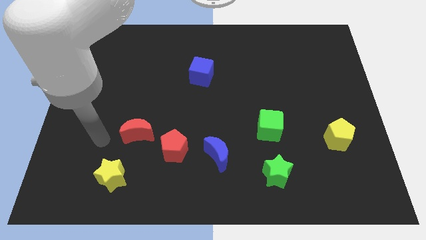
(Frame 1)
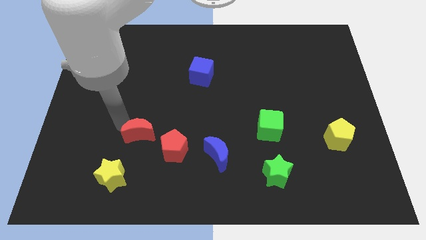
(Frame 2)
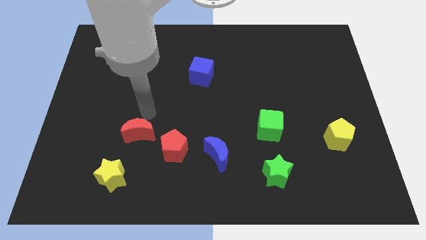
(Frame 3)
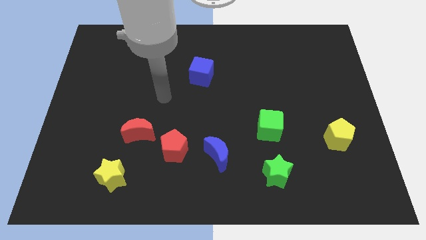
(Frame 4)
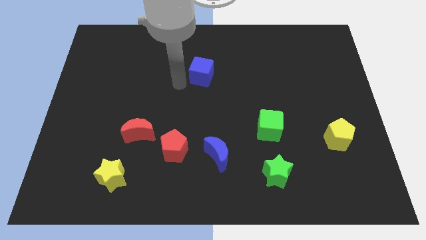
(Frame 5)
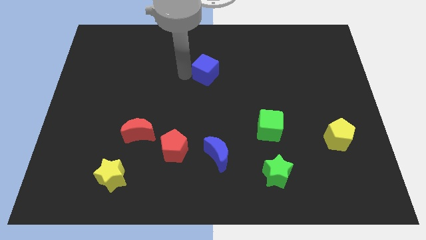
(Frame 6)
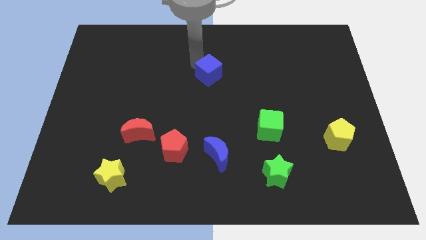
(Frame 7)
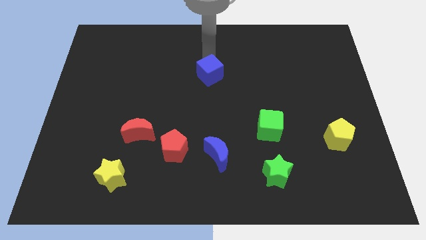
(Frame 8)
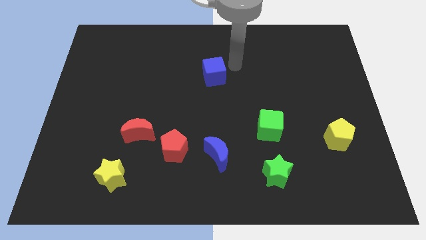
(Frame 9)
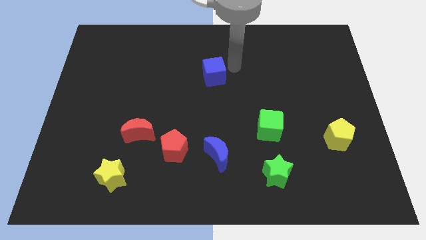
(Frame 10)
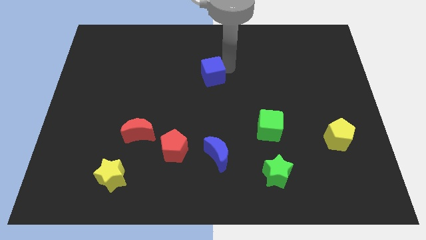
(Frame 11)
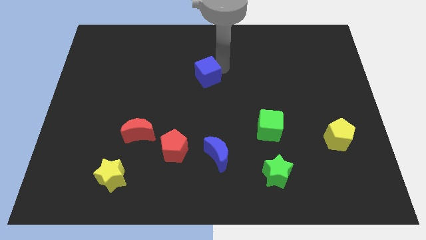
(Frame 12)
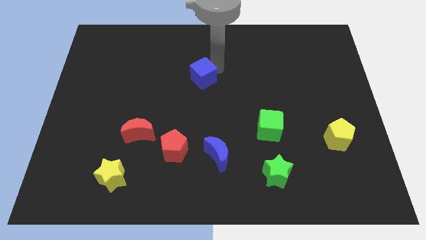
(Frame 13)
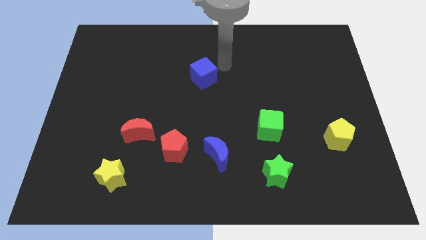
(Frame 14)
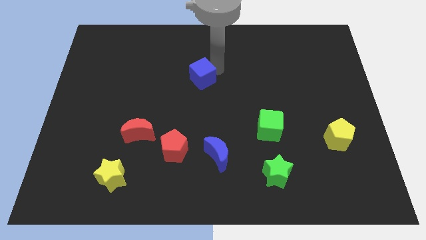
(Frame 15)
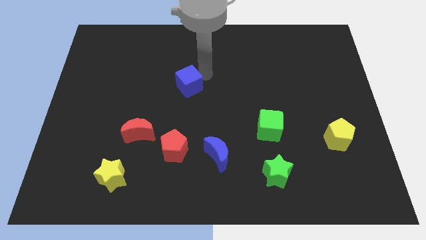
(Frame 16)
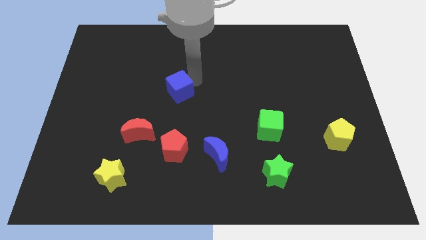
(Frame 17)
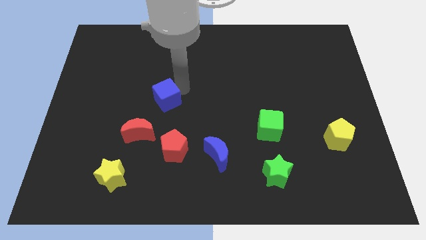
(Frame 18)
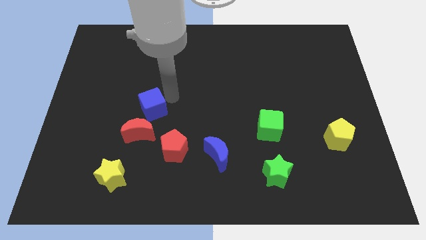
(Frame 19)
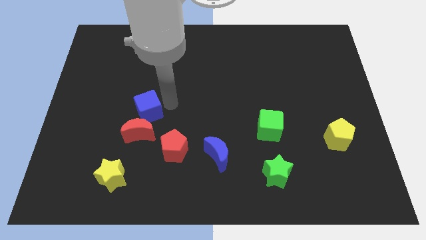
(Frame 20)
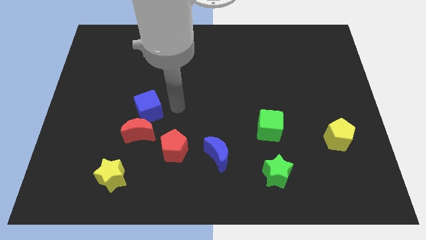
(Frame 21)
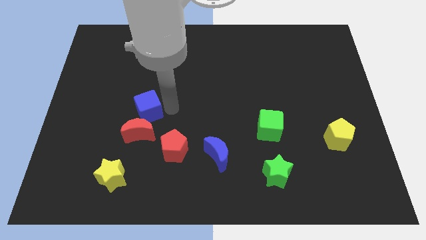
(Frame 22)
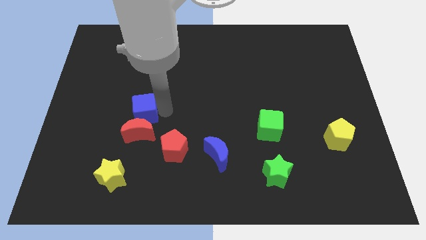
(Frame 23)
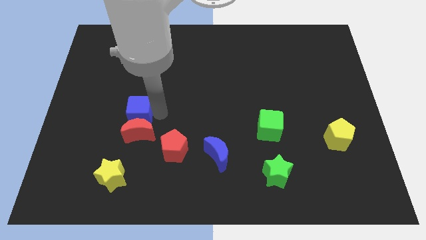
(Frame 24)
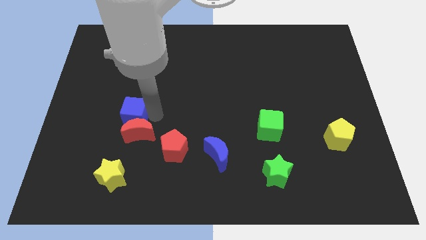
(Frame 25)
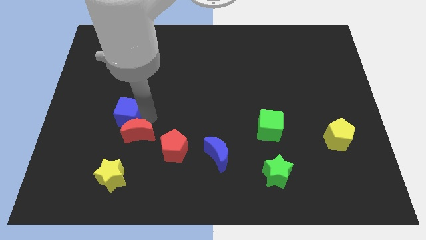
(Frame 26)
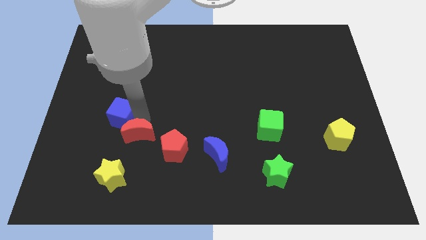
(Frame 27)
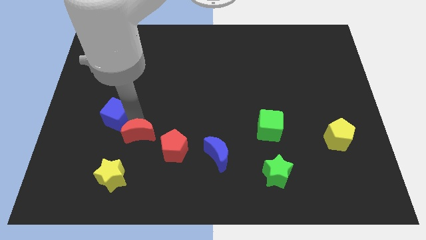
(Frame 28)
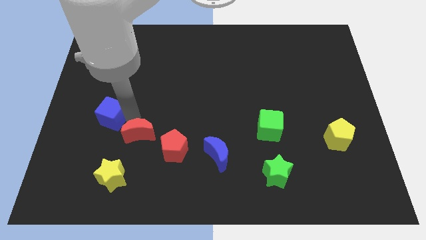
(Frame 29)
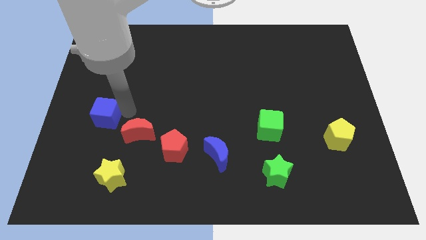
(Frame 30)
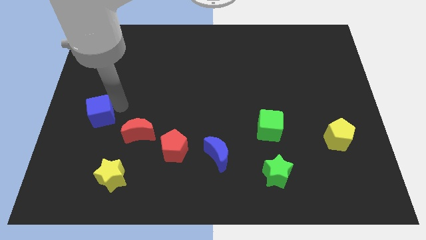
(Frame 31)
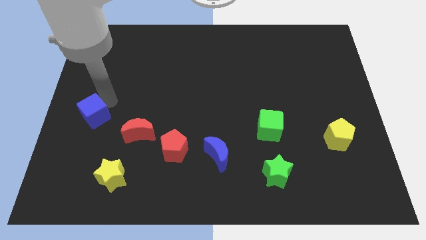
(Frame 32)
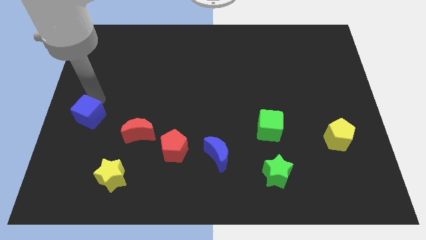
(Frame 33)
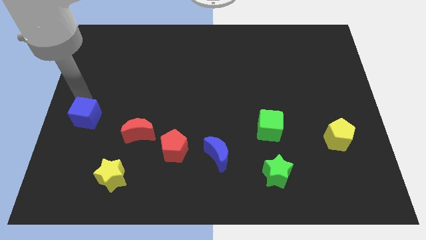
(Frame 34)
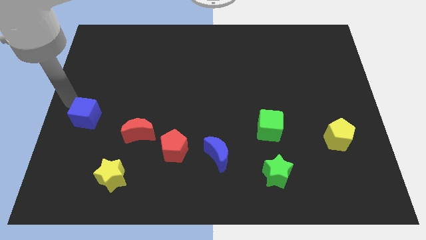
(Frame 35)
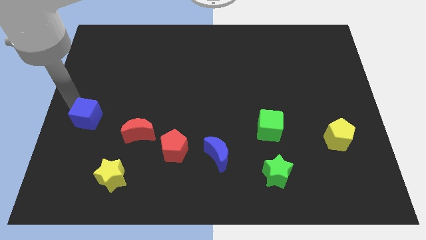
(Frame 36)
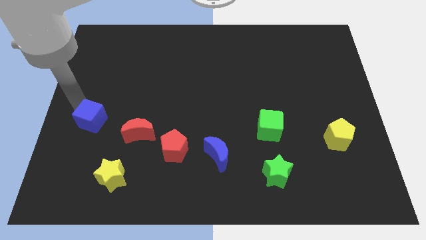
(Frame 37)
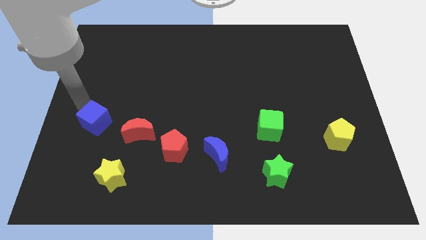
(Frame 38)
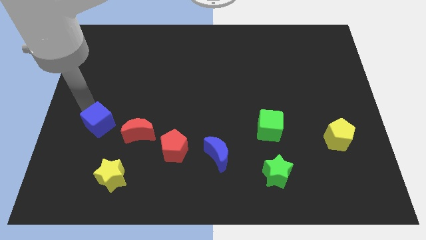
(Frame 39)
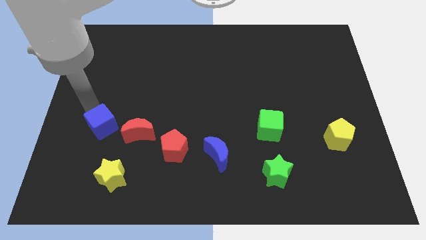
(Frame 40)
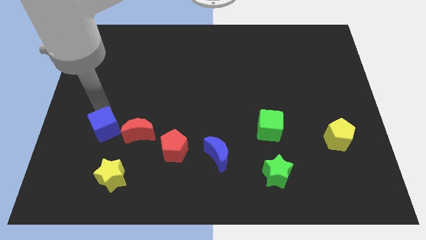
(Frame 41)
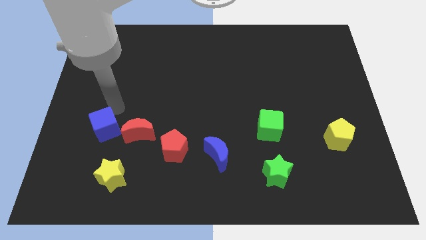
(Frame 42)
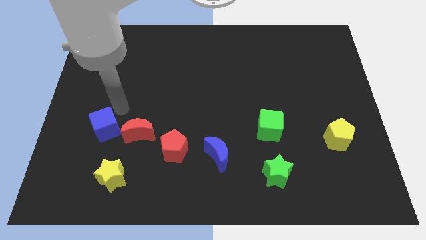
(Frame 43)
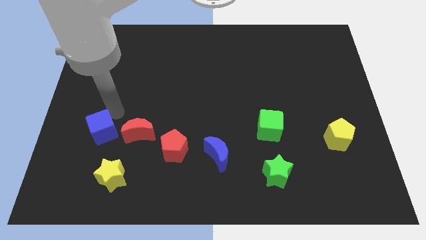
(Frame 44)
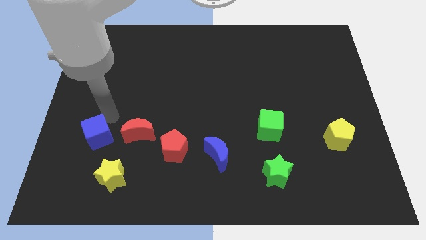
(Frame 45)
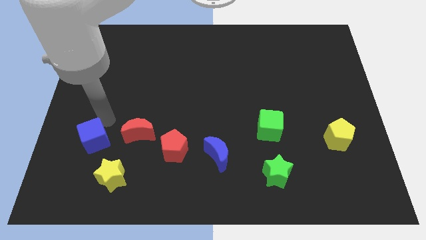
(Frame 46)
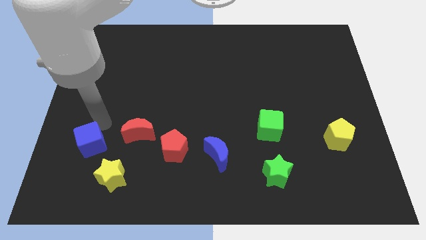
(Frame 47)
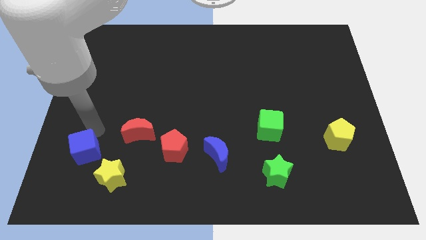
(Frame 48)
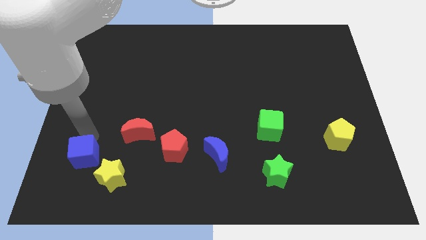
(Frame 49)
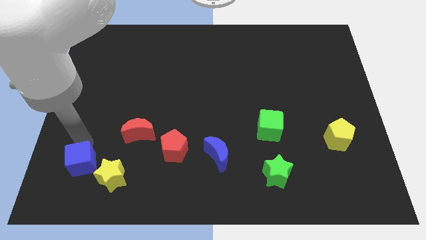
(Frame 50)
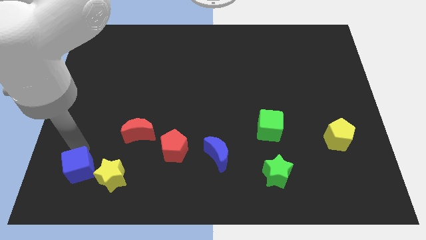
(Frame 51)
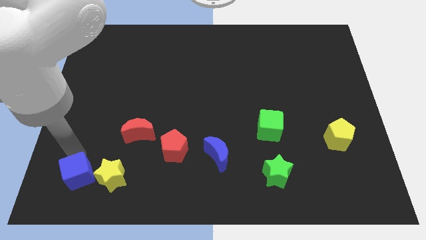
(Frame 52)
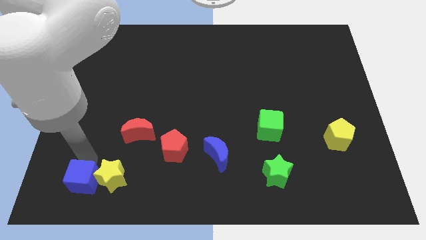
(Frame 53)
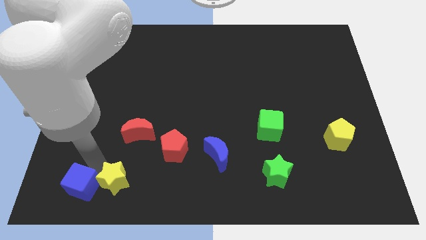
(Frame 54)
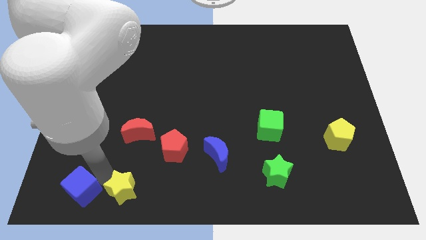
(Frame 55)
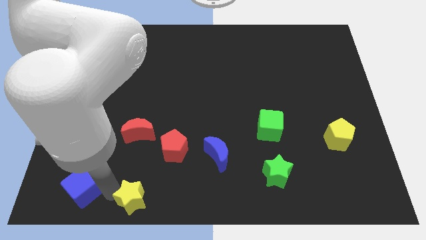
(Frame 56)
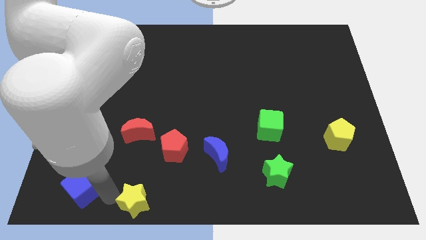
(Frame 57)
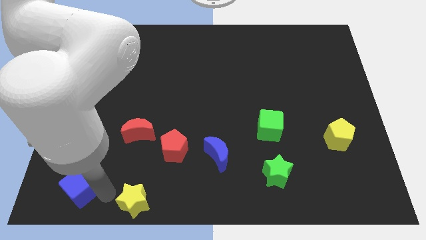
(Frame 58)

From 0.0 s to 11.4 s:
put the blue cube to the bottom left corner
